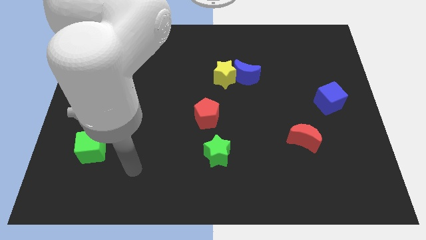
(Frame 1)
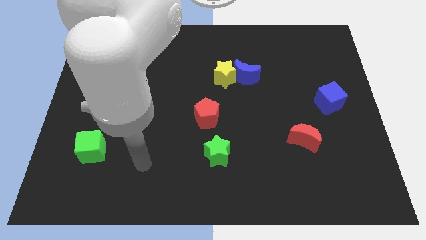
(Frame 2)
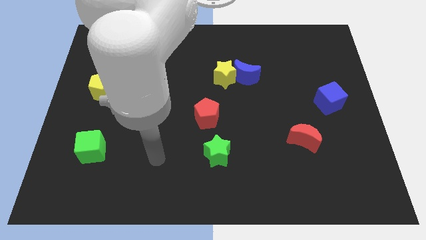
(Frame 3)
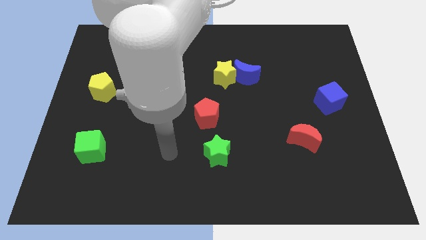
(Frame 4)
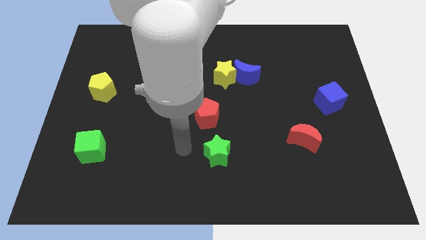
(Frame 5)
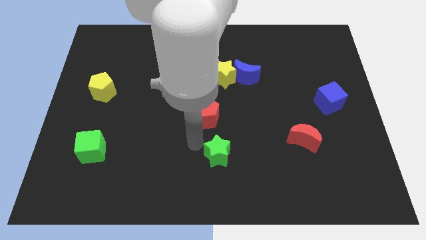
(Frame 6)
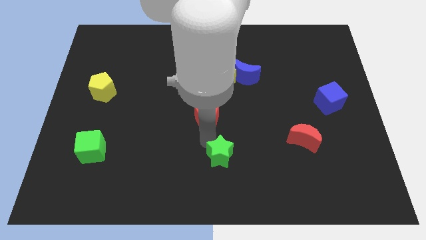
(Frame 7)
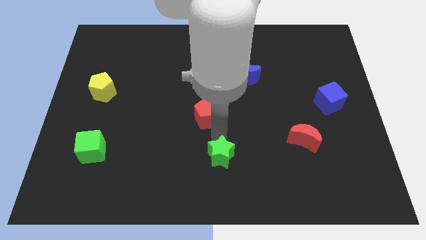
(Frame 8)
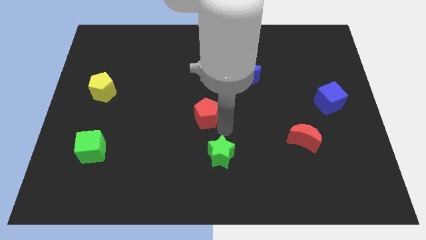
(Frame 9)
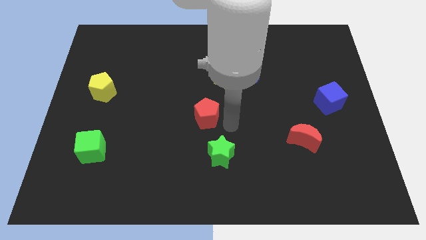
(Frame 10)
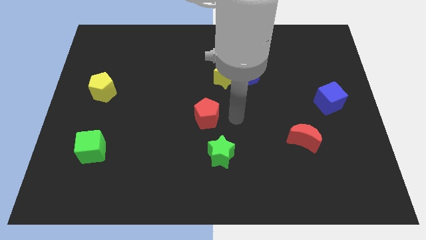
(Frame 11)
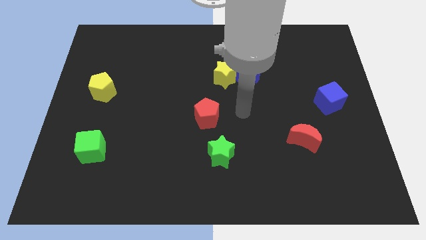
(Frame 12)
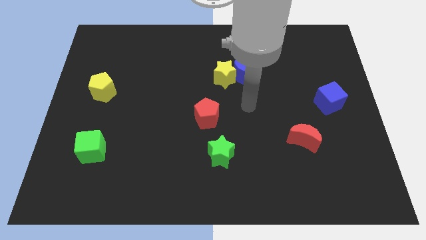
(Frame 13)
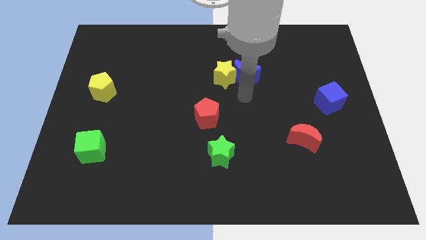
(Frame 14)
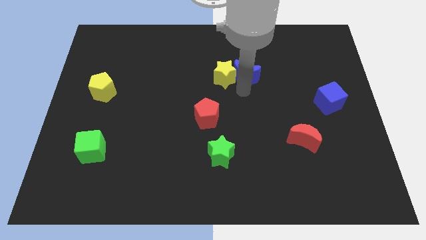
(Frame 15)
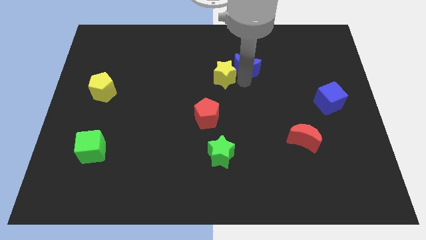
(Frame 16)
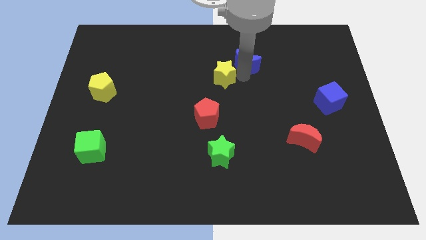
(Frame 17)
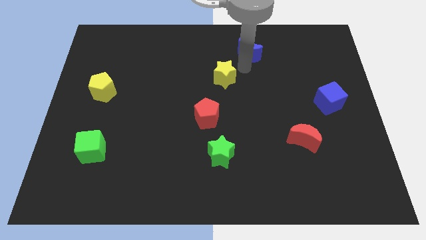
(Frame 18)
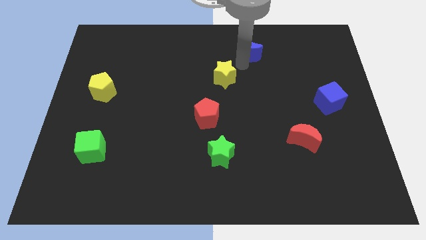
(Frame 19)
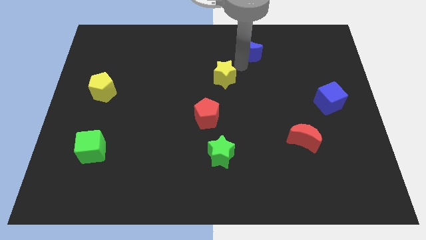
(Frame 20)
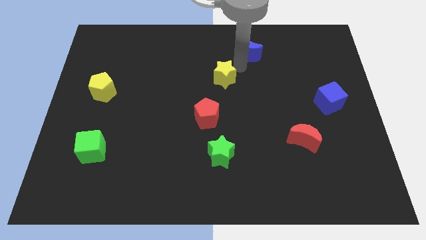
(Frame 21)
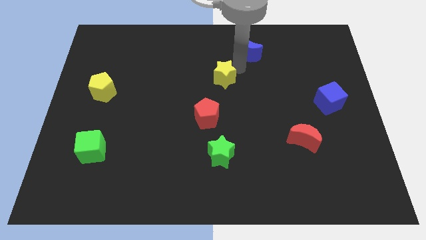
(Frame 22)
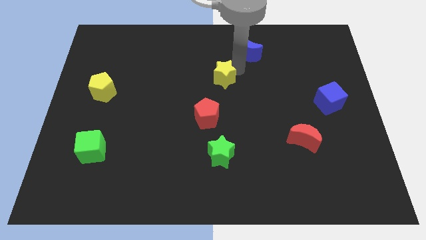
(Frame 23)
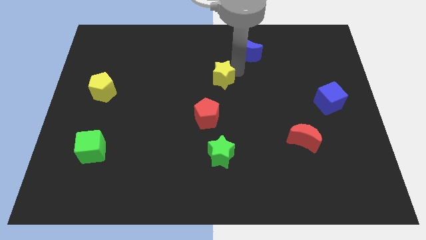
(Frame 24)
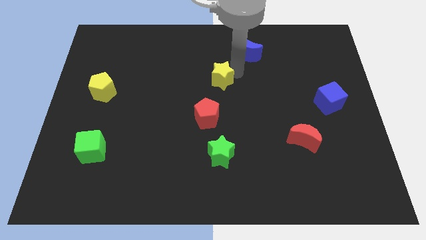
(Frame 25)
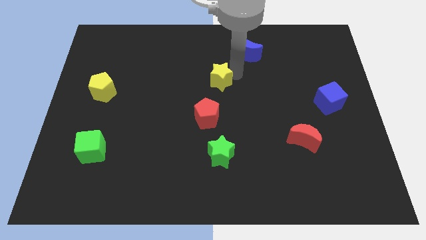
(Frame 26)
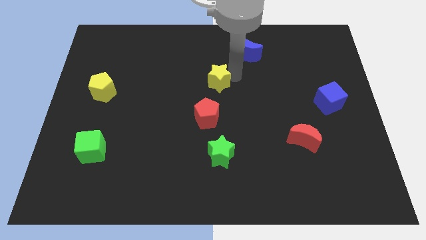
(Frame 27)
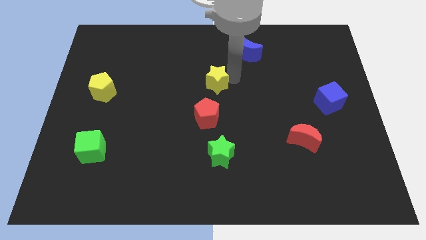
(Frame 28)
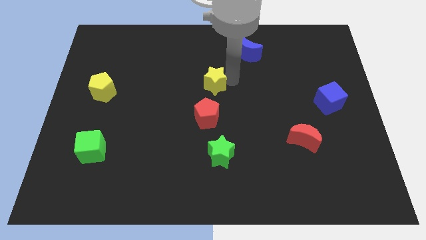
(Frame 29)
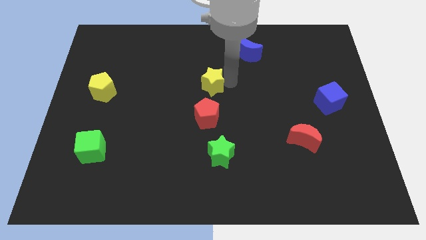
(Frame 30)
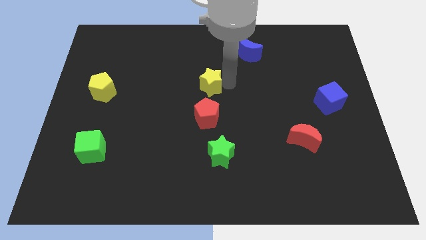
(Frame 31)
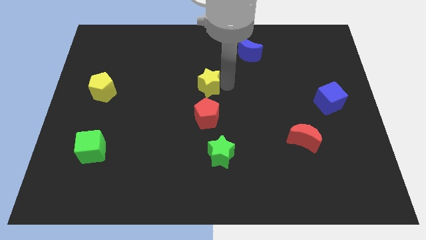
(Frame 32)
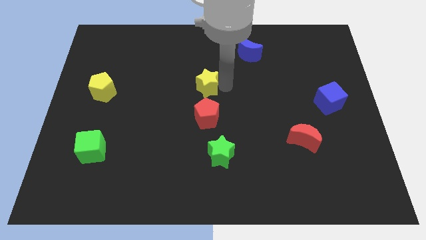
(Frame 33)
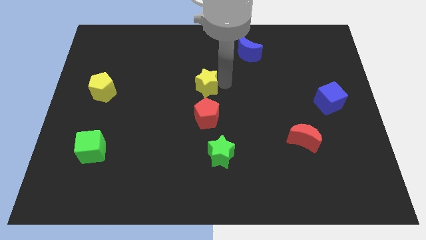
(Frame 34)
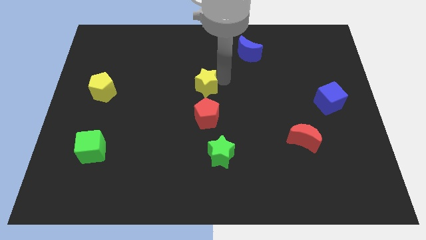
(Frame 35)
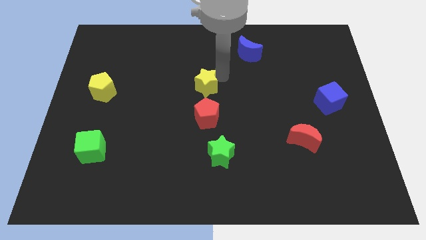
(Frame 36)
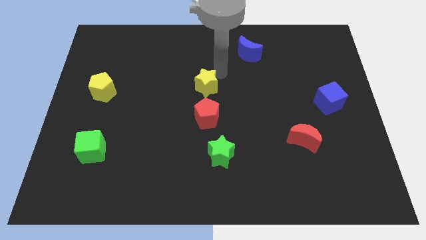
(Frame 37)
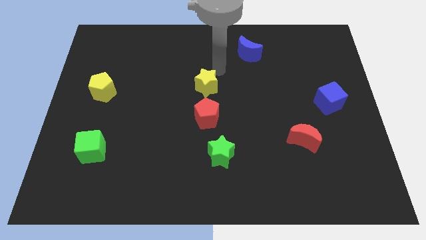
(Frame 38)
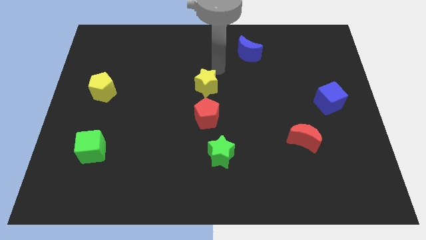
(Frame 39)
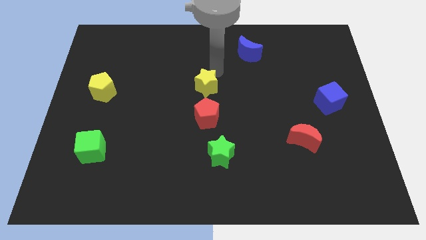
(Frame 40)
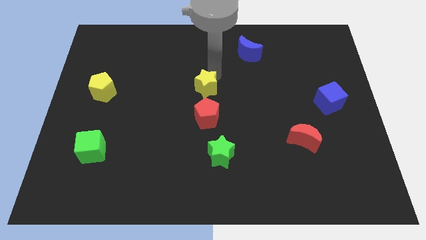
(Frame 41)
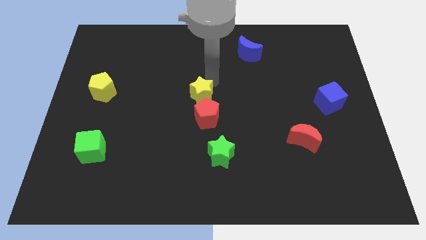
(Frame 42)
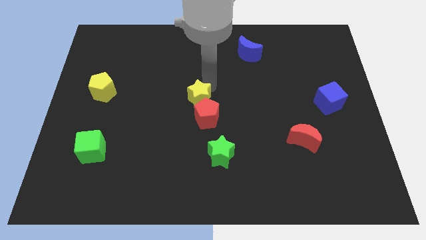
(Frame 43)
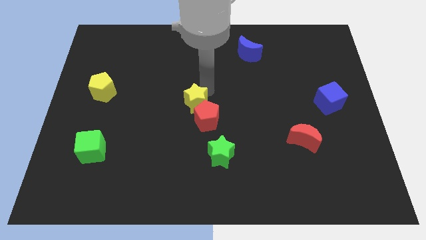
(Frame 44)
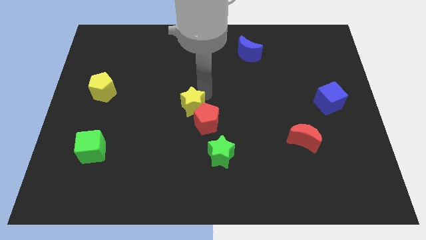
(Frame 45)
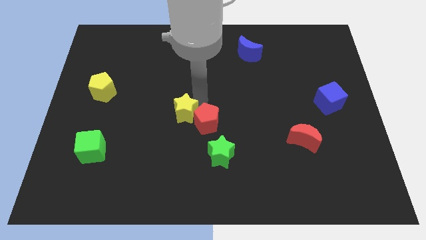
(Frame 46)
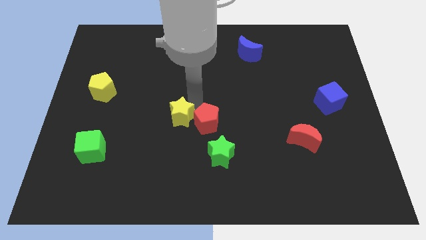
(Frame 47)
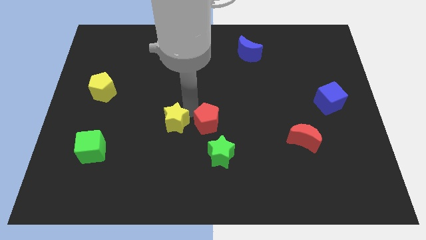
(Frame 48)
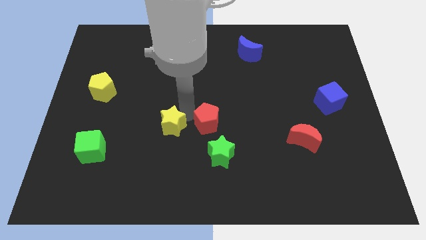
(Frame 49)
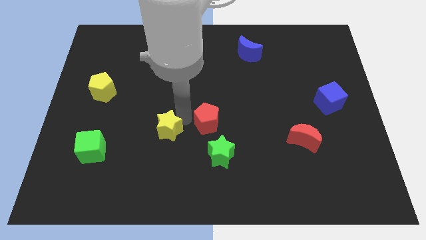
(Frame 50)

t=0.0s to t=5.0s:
push the yellow star diagonally down and left

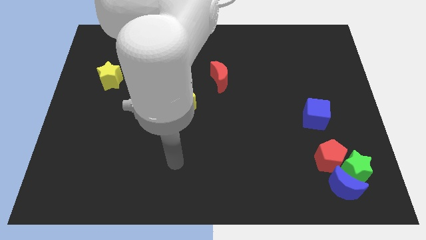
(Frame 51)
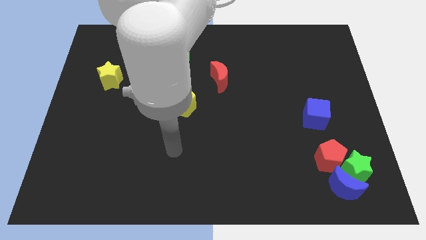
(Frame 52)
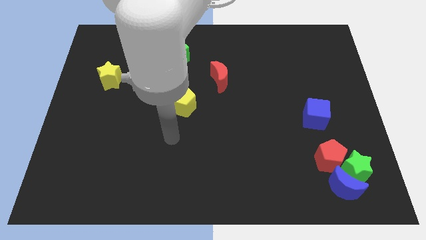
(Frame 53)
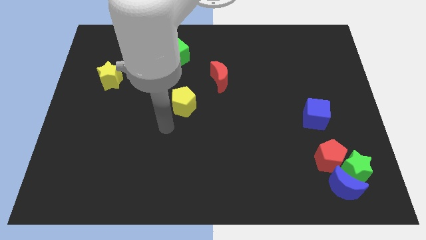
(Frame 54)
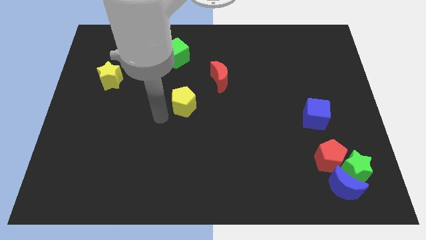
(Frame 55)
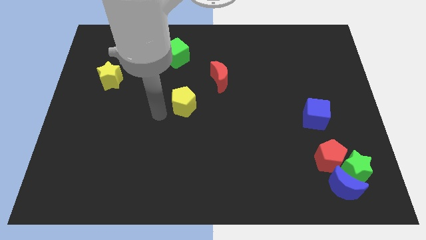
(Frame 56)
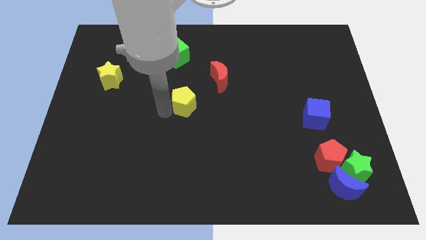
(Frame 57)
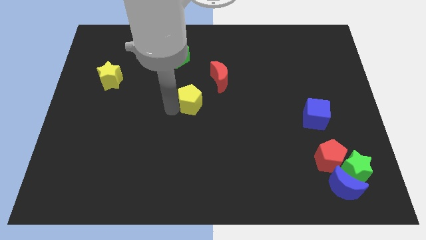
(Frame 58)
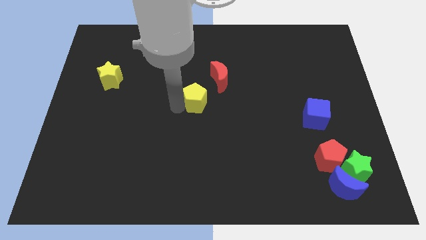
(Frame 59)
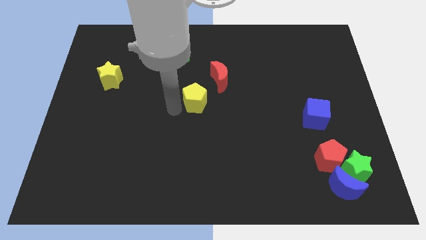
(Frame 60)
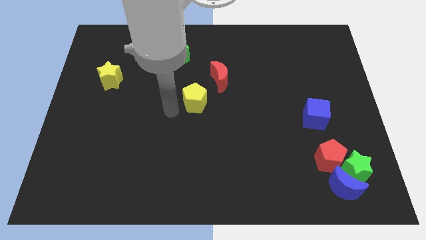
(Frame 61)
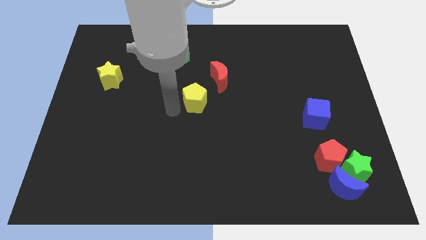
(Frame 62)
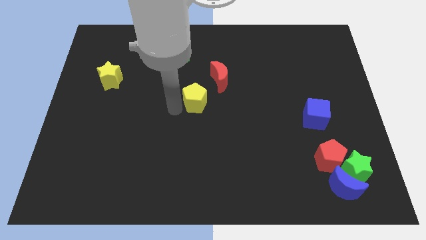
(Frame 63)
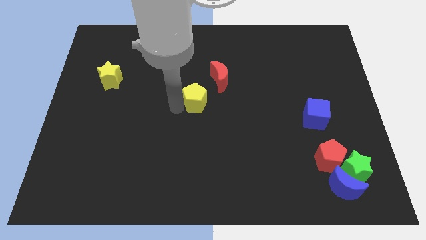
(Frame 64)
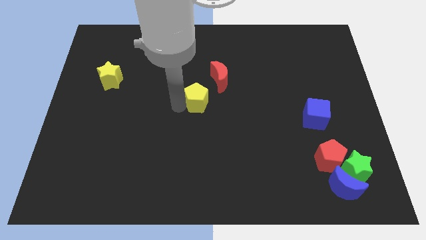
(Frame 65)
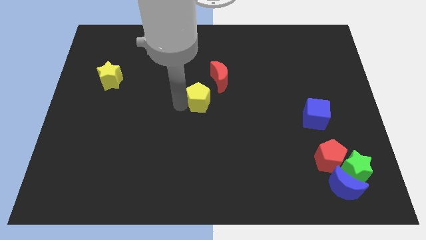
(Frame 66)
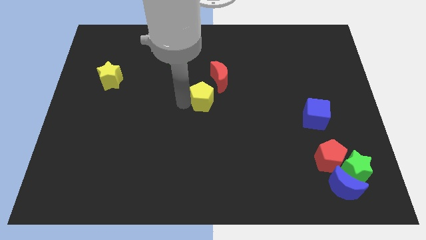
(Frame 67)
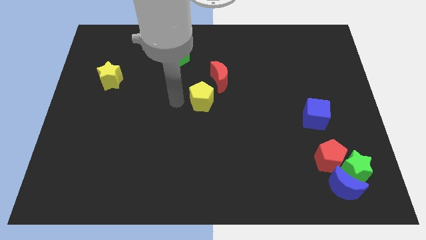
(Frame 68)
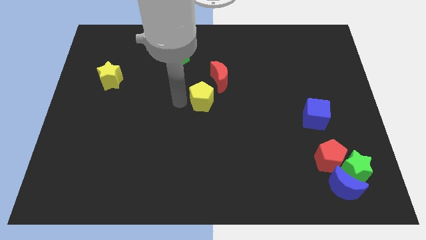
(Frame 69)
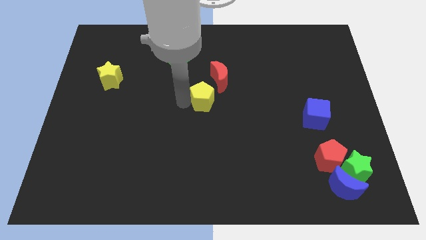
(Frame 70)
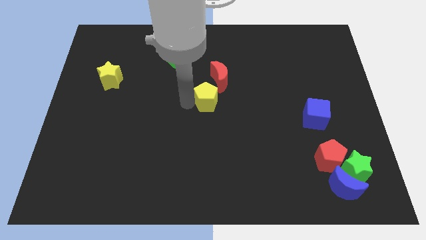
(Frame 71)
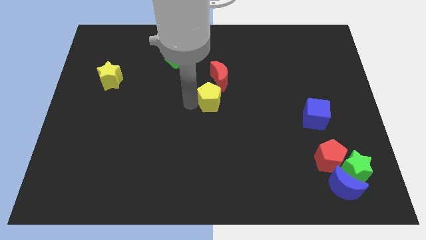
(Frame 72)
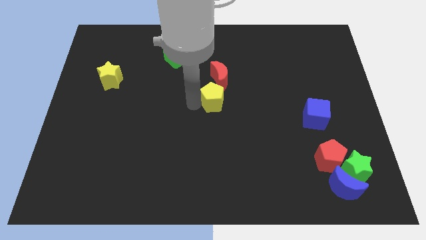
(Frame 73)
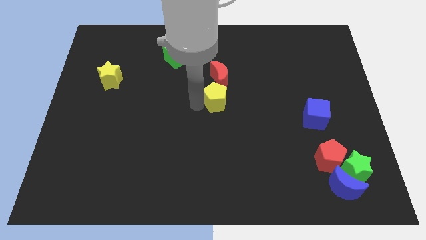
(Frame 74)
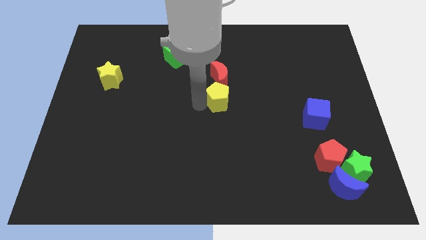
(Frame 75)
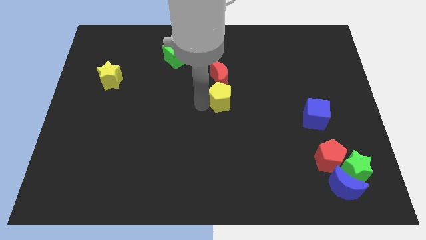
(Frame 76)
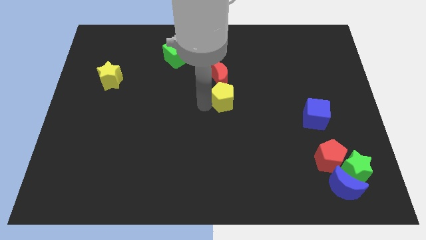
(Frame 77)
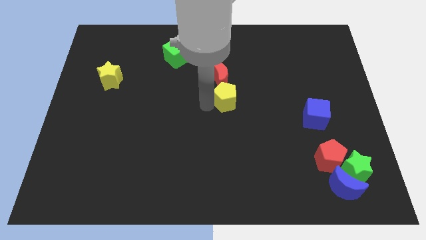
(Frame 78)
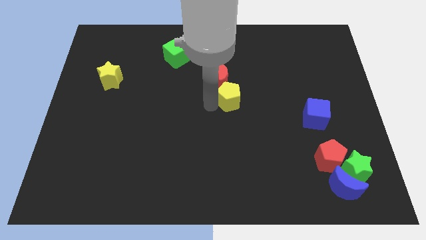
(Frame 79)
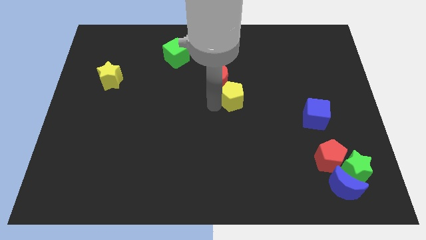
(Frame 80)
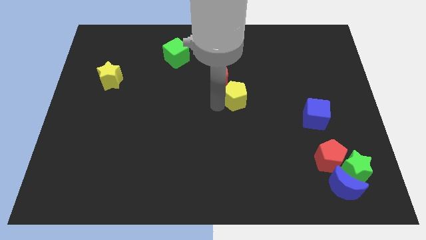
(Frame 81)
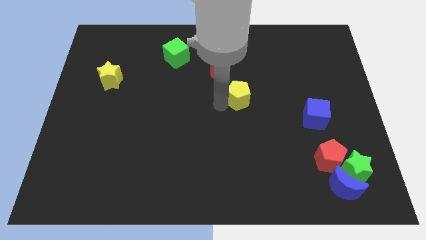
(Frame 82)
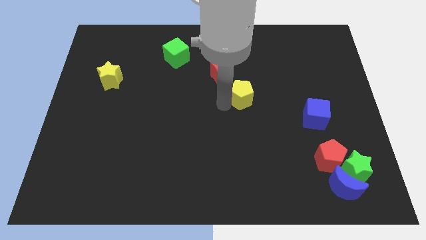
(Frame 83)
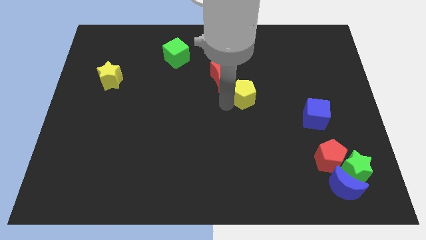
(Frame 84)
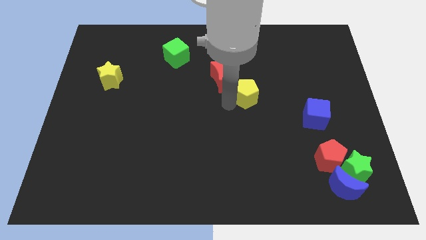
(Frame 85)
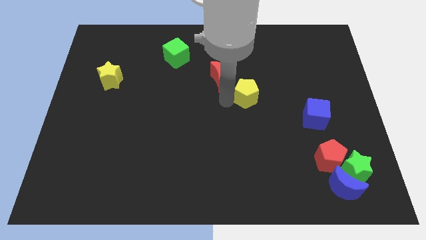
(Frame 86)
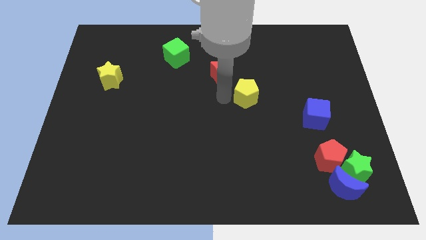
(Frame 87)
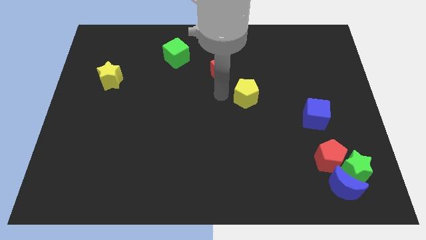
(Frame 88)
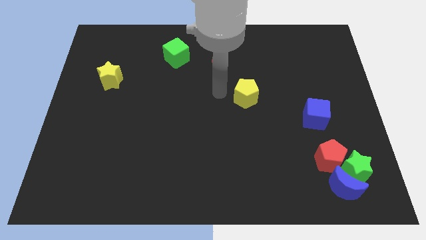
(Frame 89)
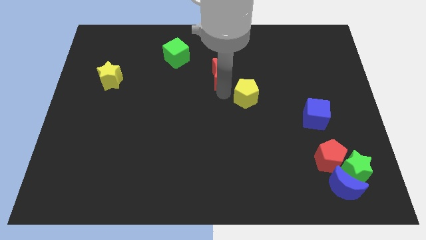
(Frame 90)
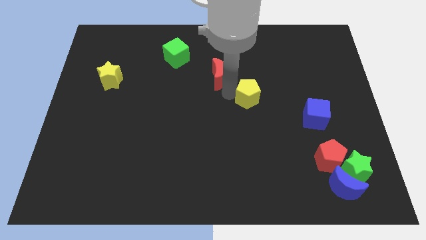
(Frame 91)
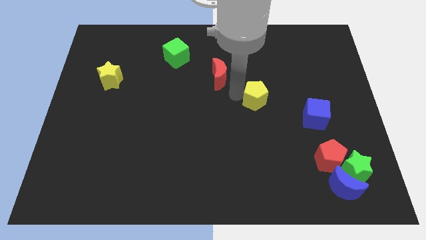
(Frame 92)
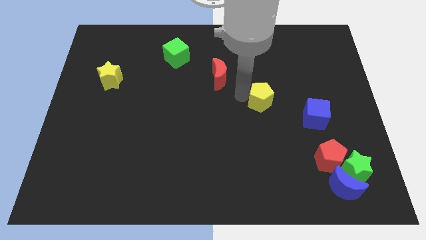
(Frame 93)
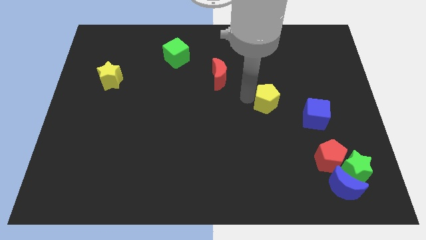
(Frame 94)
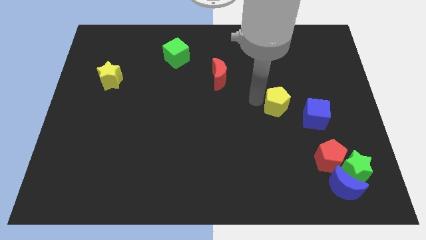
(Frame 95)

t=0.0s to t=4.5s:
move the yellow pentagon to the right
